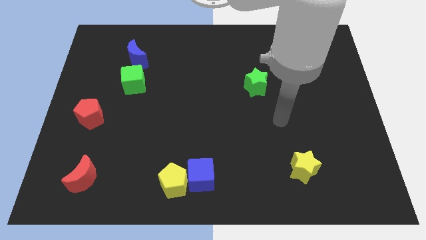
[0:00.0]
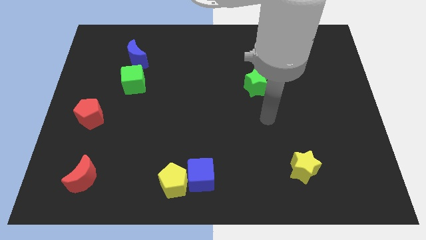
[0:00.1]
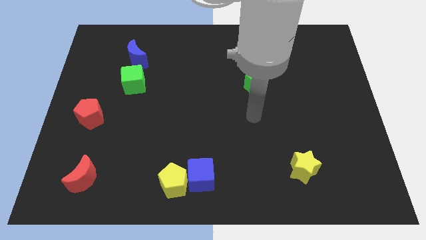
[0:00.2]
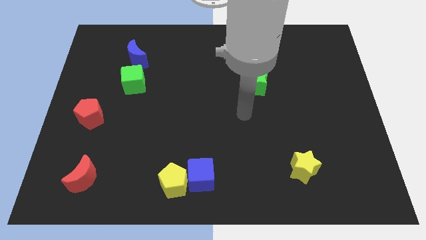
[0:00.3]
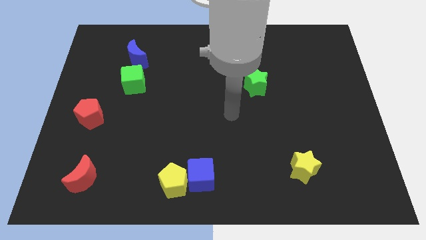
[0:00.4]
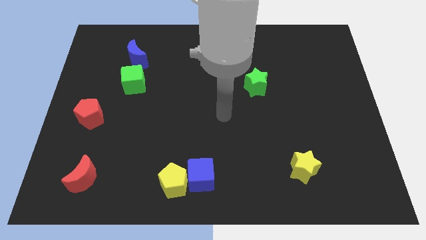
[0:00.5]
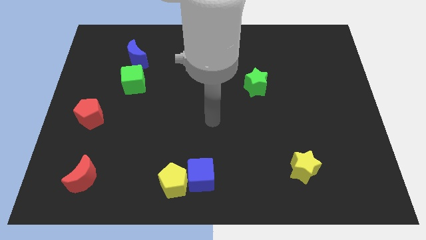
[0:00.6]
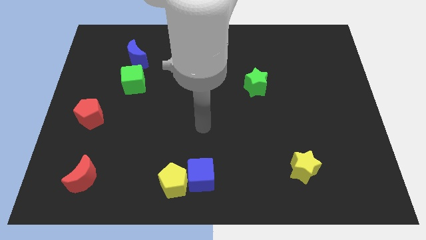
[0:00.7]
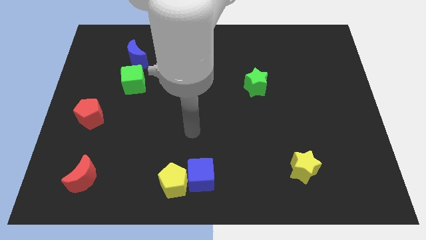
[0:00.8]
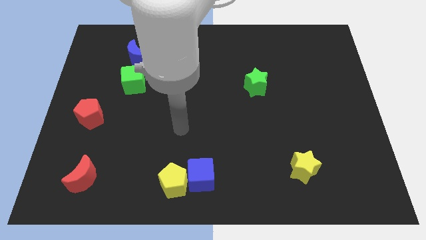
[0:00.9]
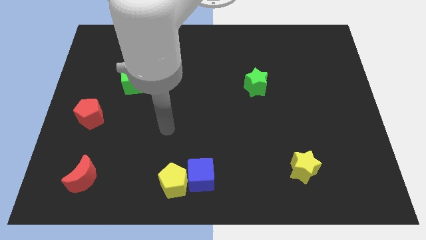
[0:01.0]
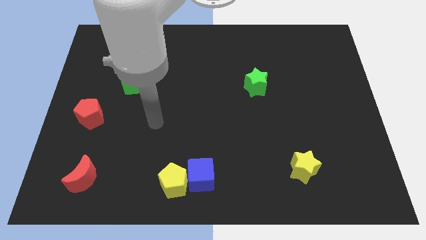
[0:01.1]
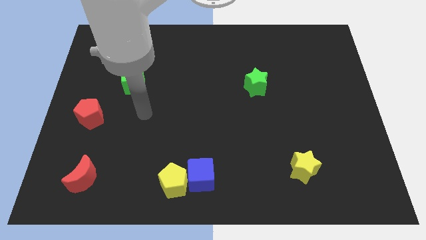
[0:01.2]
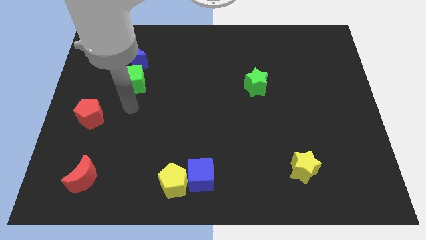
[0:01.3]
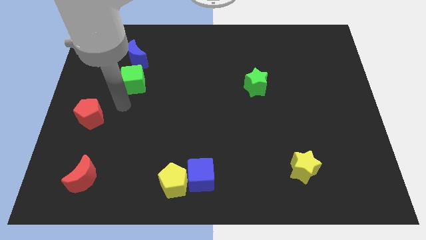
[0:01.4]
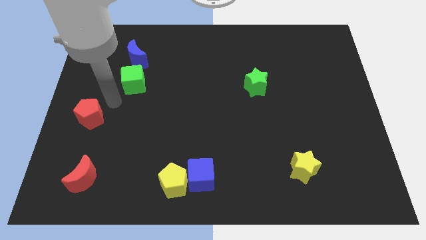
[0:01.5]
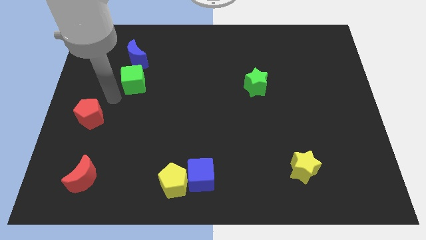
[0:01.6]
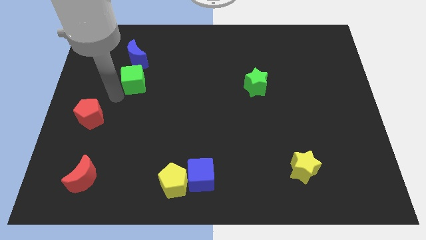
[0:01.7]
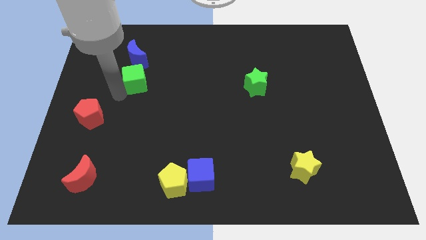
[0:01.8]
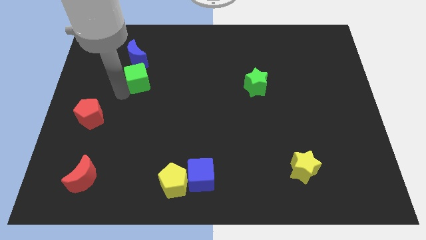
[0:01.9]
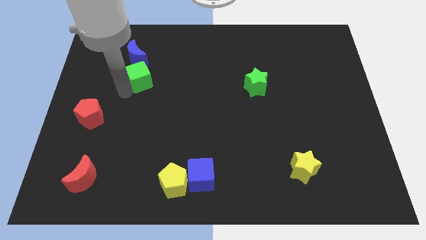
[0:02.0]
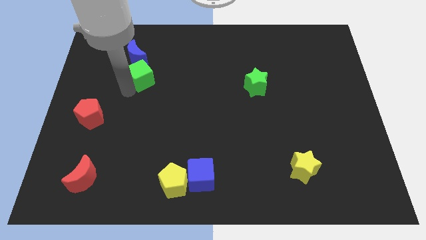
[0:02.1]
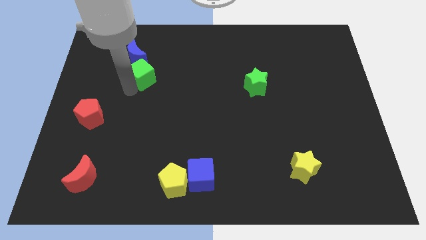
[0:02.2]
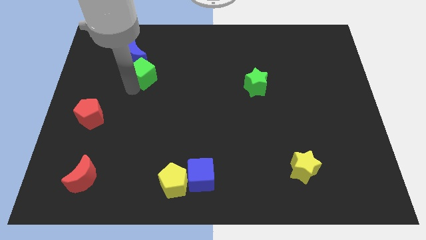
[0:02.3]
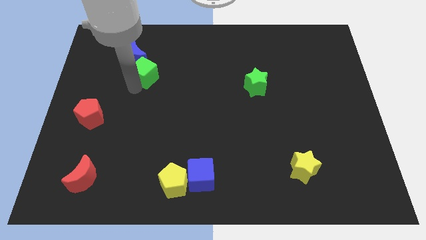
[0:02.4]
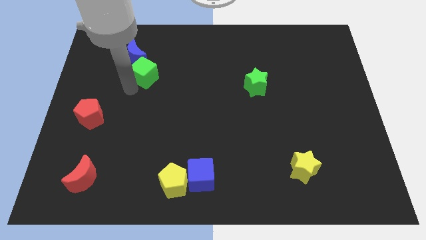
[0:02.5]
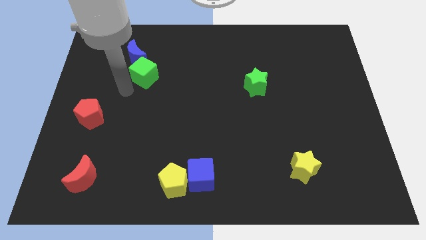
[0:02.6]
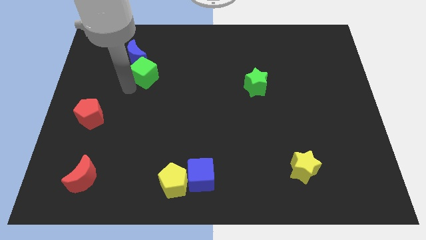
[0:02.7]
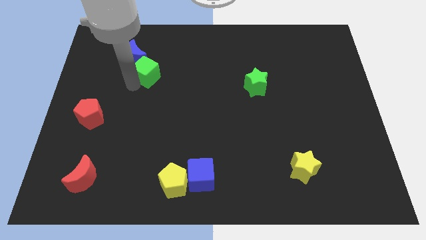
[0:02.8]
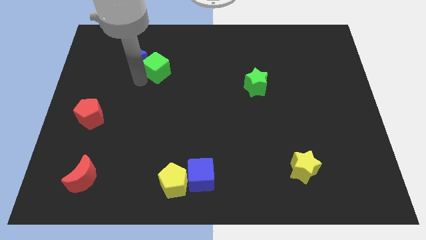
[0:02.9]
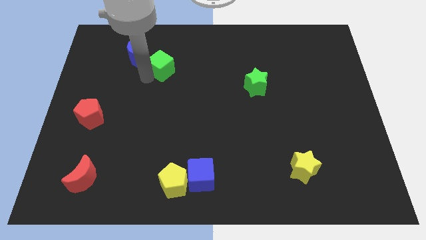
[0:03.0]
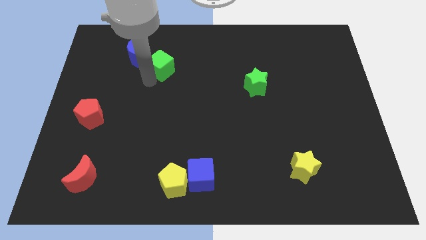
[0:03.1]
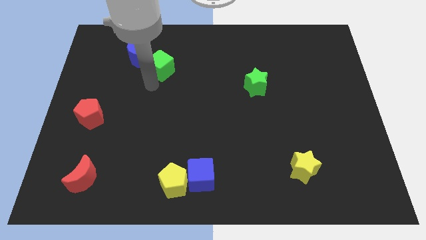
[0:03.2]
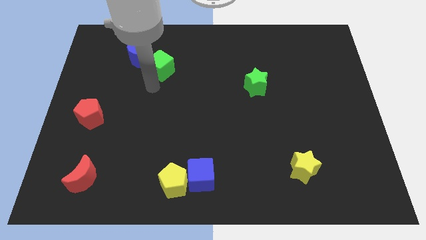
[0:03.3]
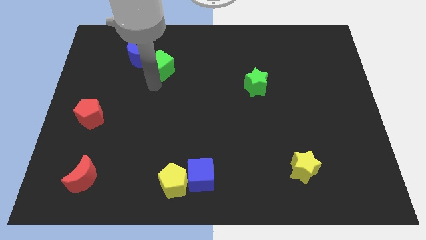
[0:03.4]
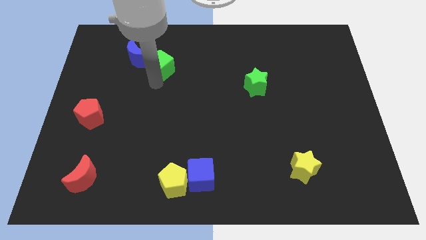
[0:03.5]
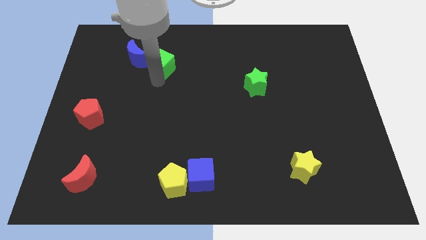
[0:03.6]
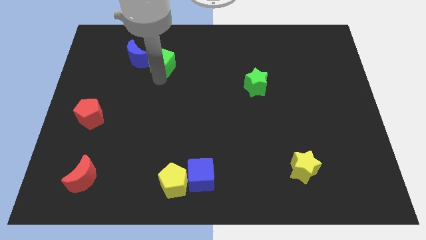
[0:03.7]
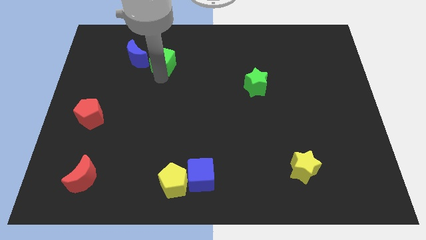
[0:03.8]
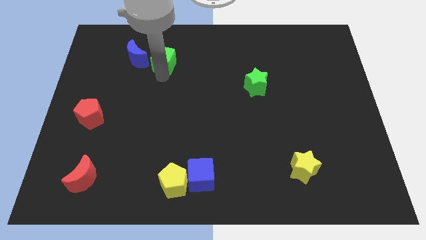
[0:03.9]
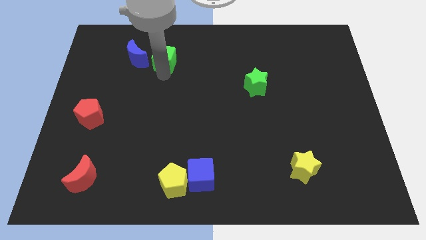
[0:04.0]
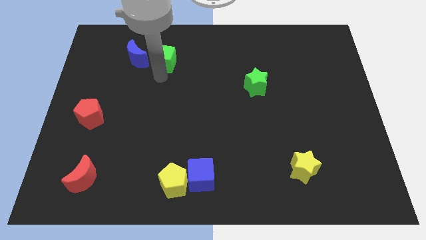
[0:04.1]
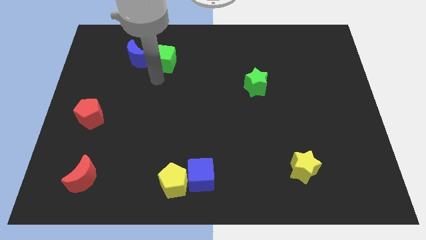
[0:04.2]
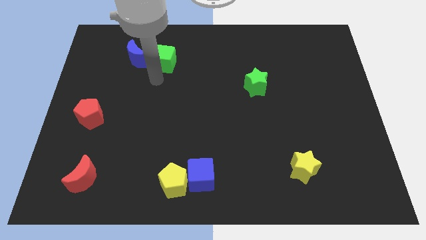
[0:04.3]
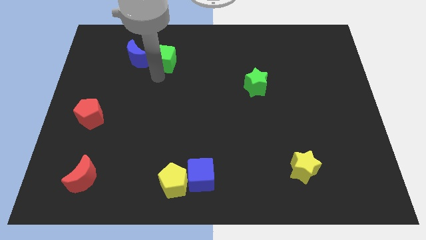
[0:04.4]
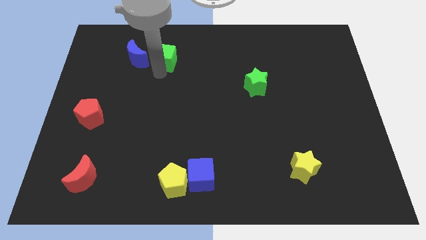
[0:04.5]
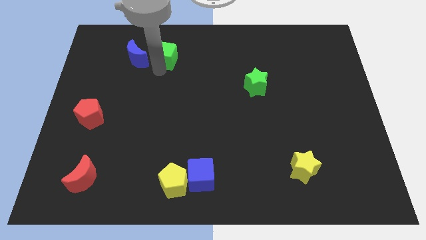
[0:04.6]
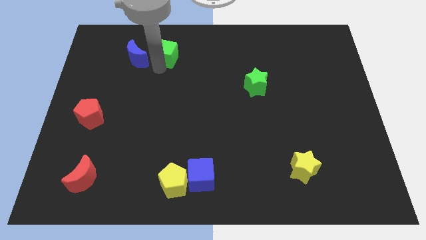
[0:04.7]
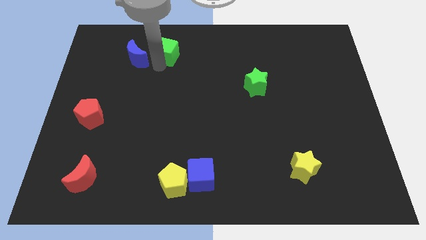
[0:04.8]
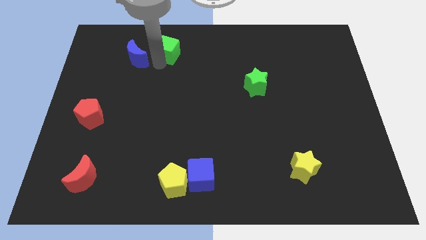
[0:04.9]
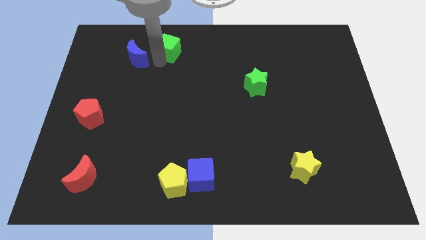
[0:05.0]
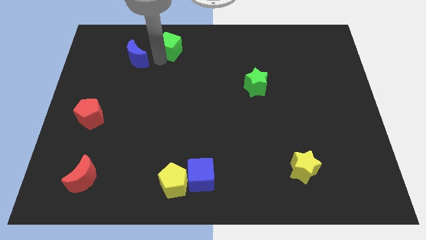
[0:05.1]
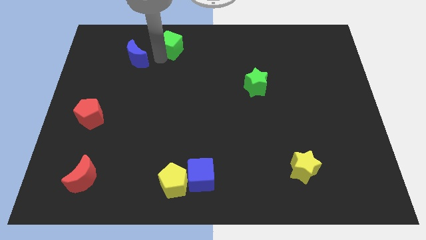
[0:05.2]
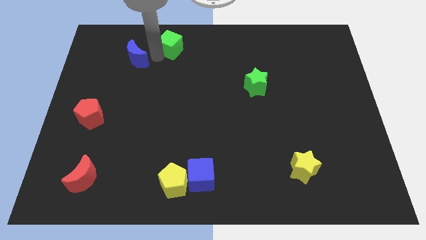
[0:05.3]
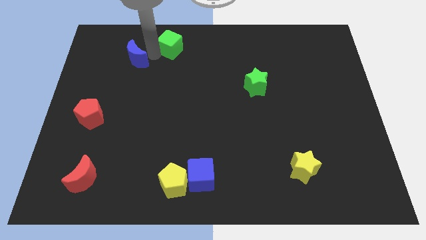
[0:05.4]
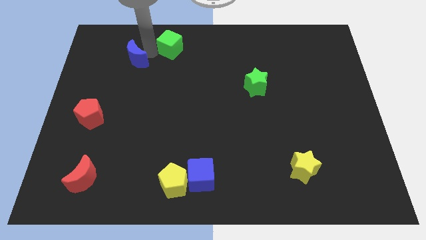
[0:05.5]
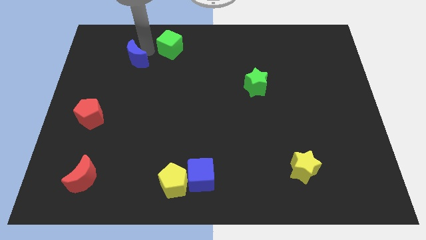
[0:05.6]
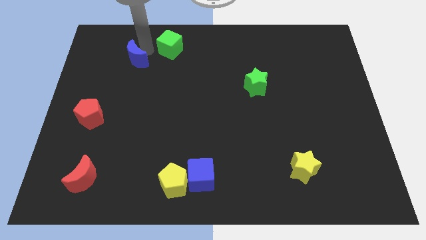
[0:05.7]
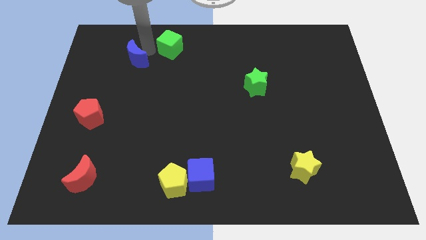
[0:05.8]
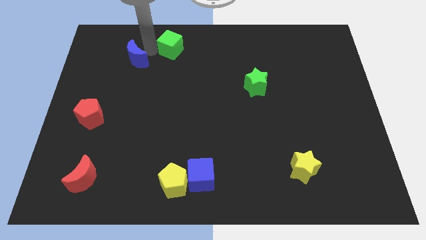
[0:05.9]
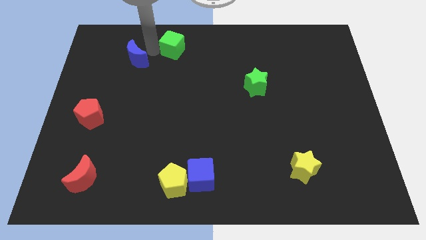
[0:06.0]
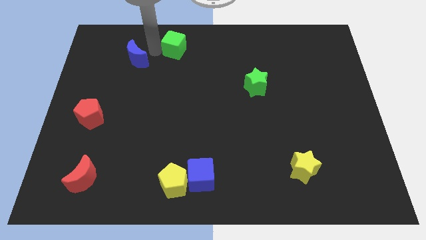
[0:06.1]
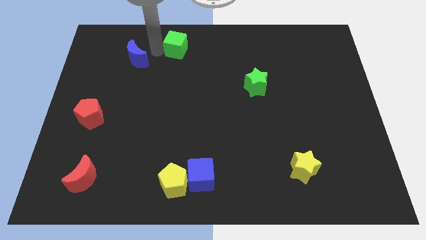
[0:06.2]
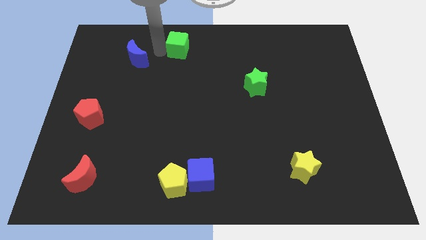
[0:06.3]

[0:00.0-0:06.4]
slide the green cube to the towards your base
